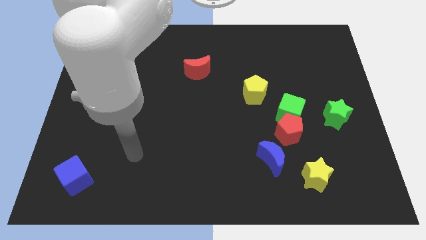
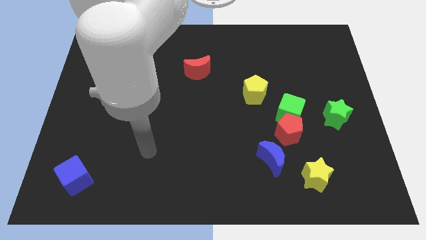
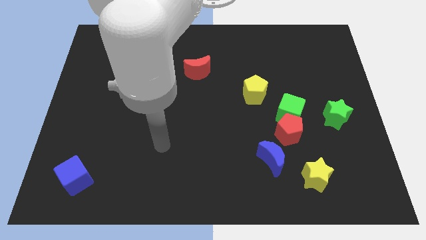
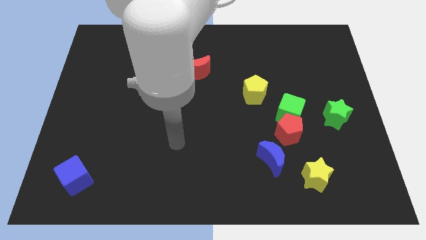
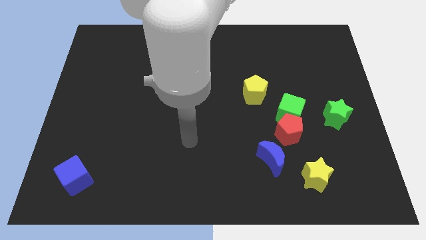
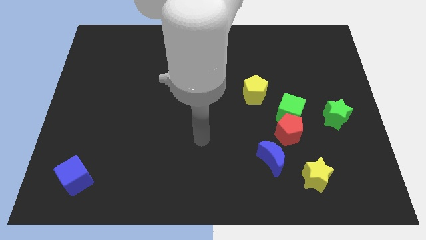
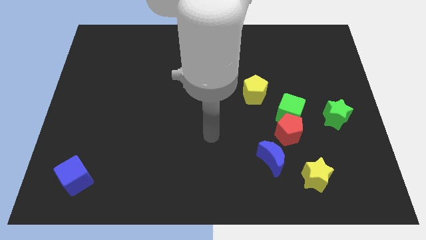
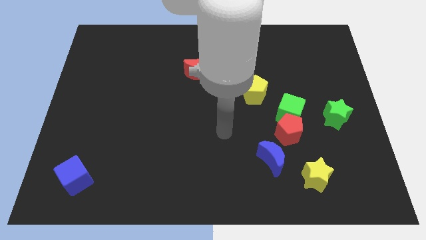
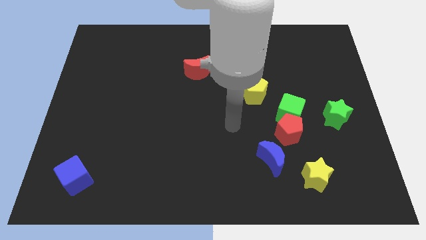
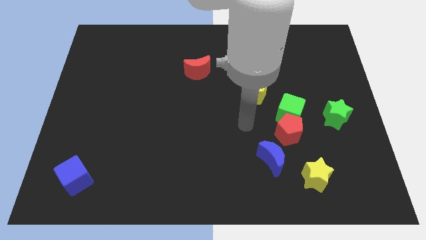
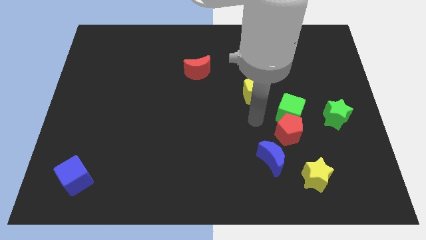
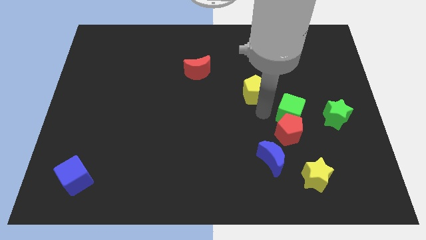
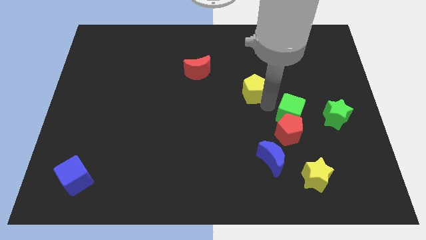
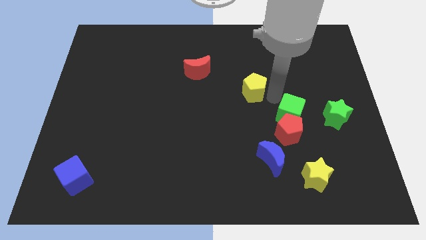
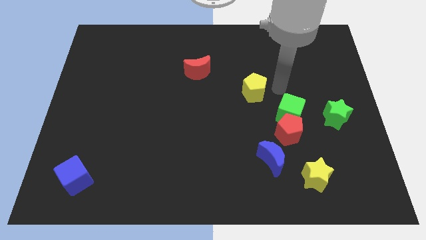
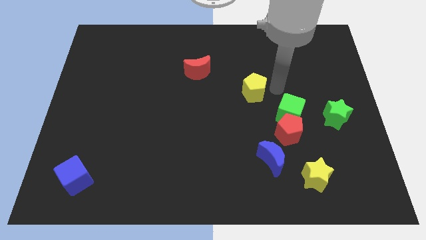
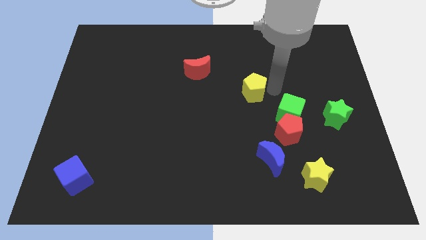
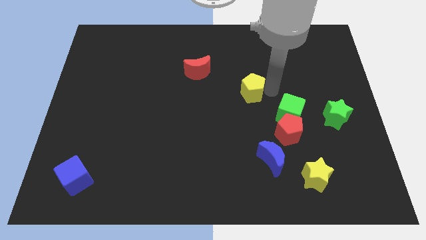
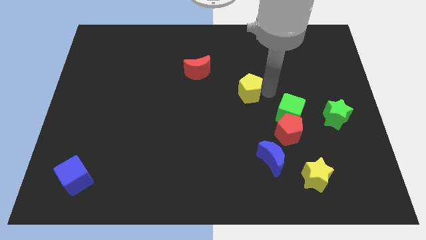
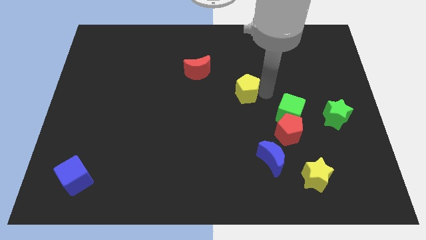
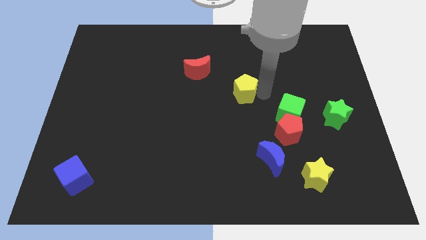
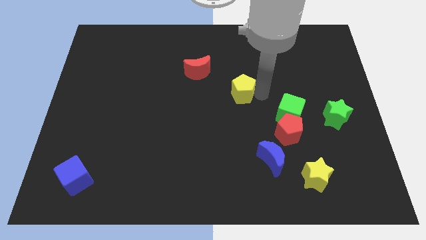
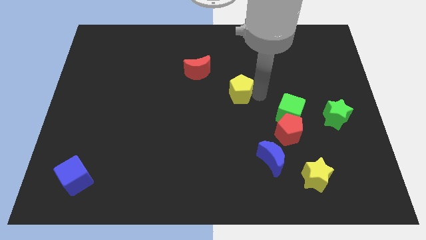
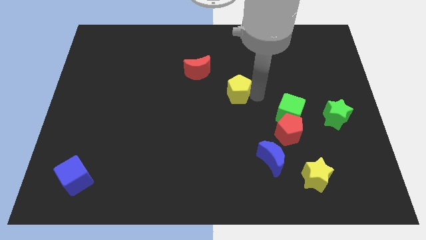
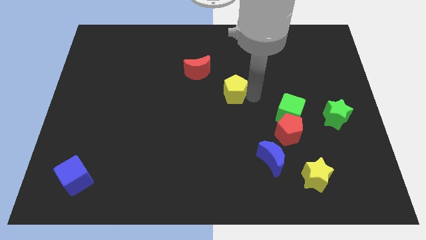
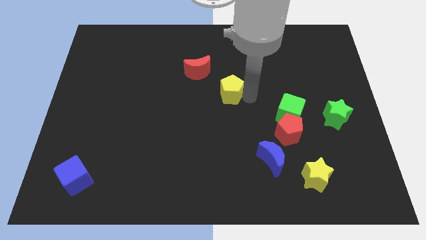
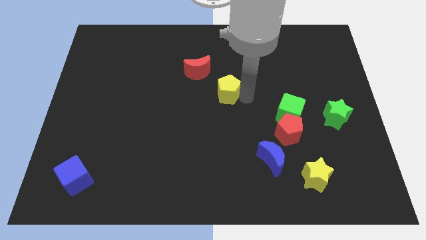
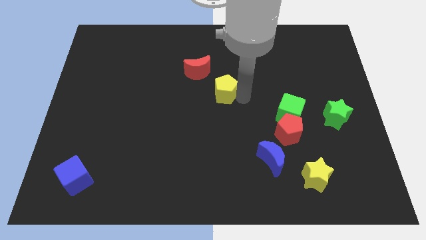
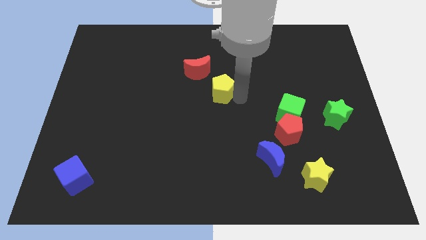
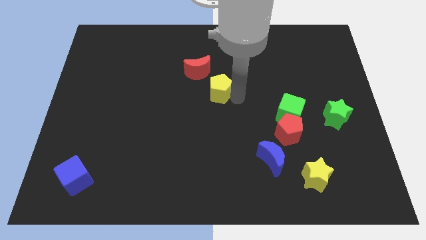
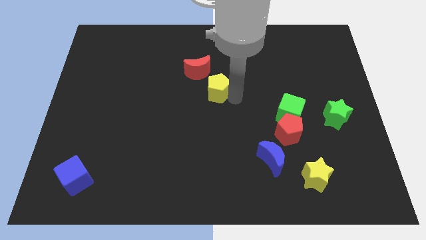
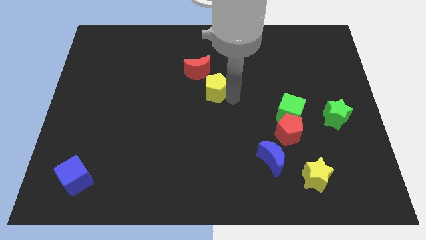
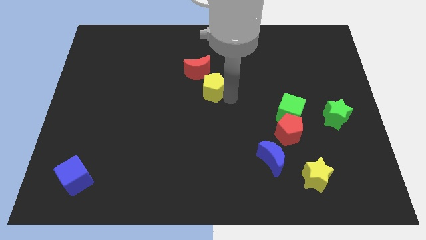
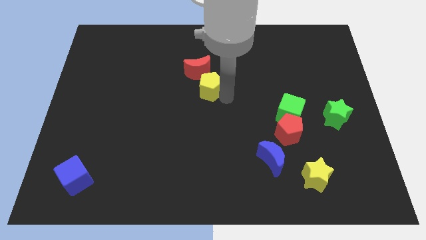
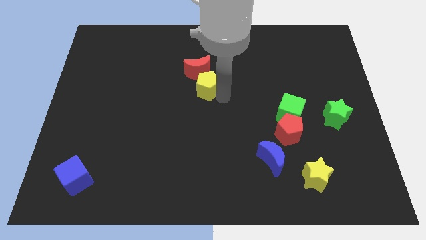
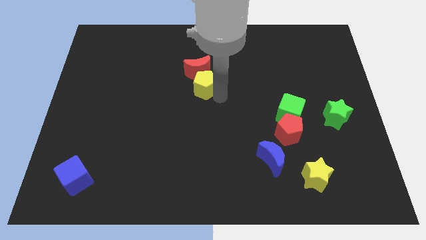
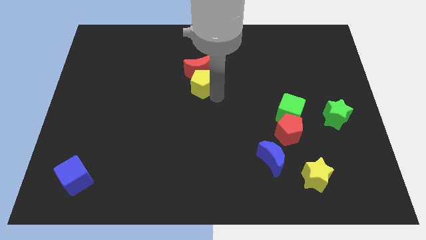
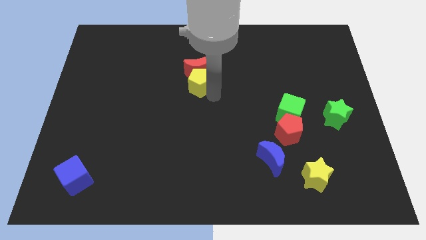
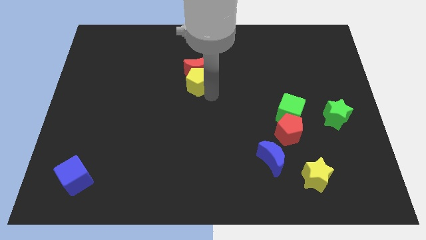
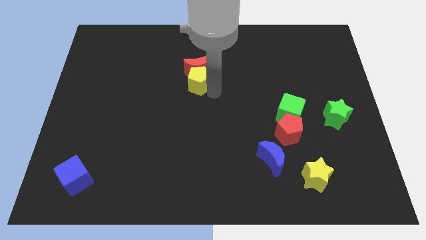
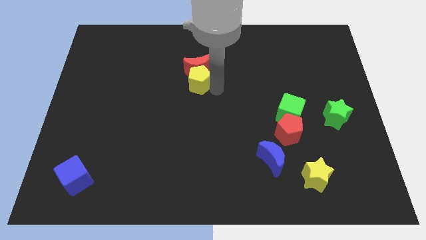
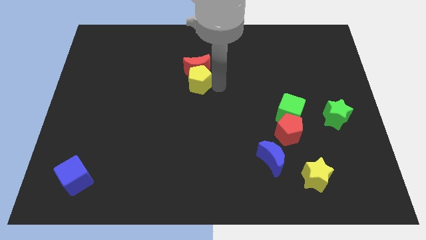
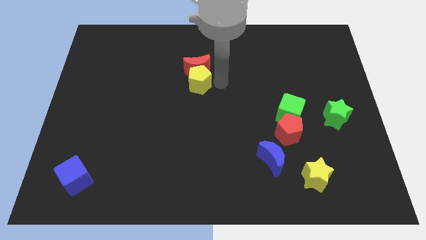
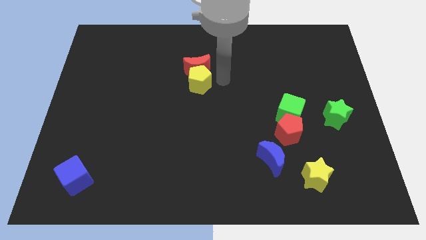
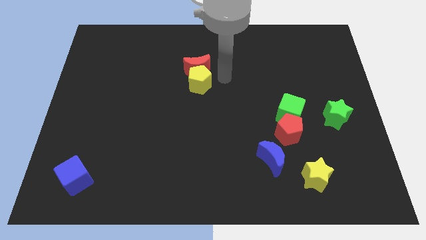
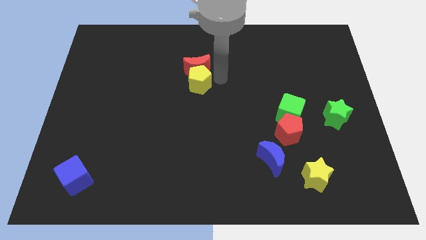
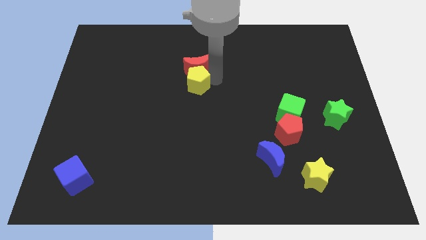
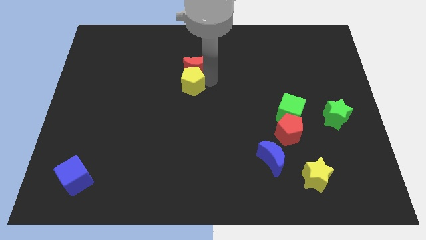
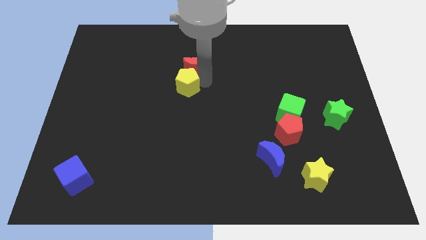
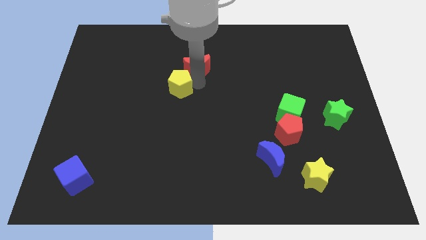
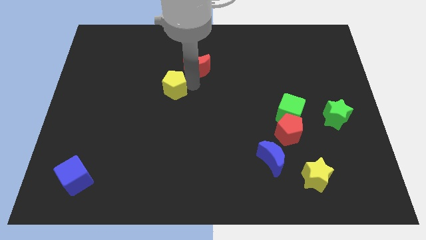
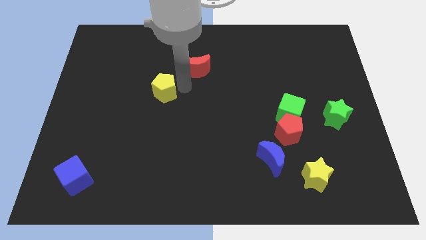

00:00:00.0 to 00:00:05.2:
move the yellow pentagon to the left

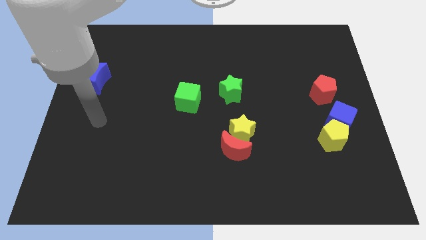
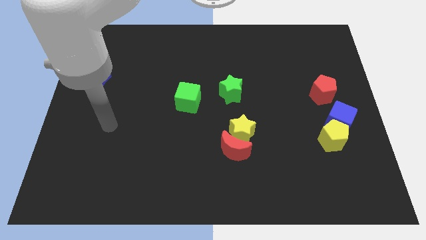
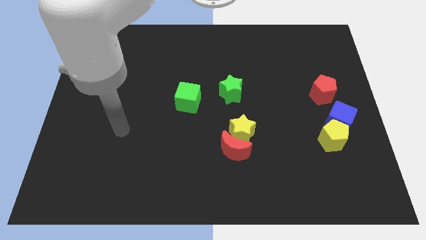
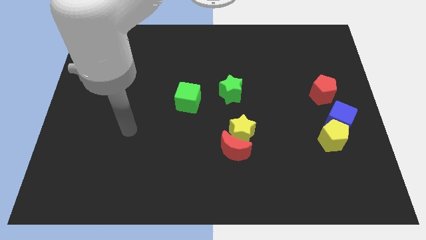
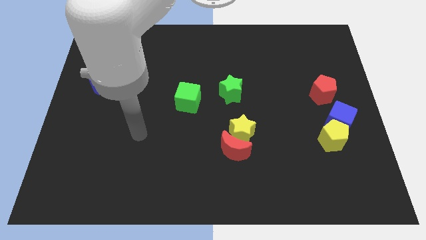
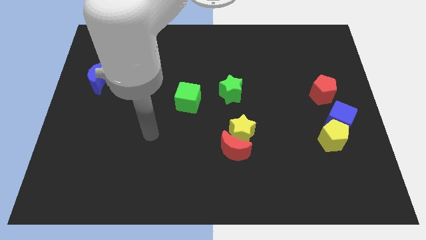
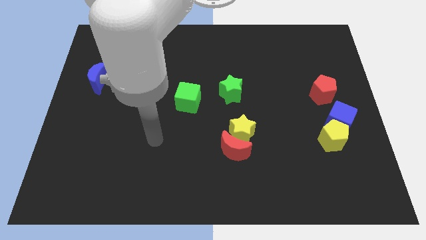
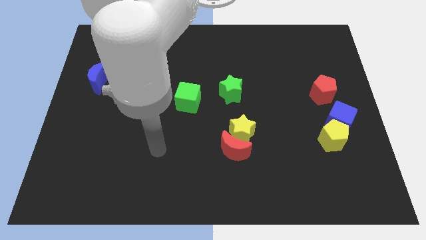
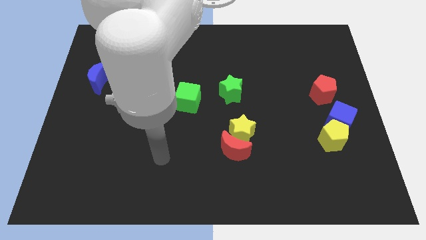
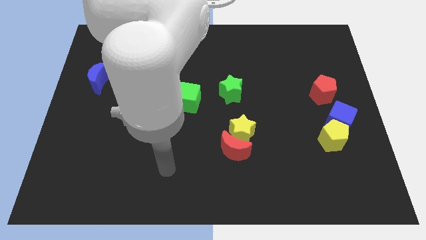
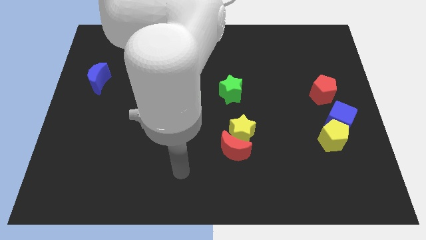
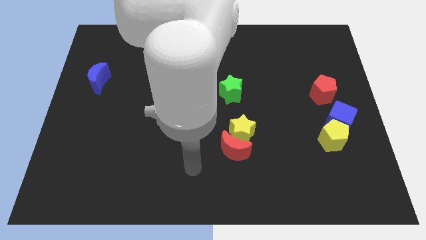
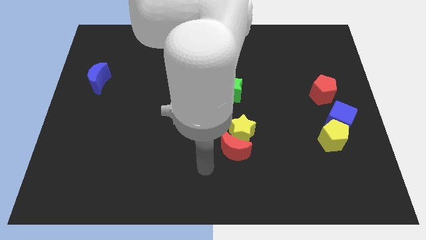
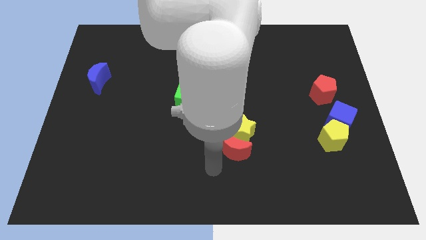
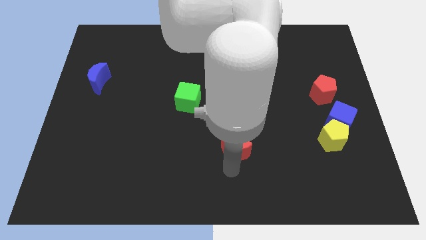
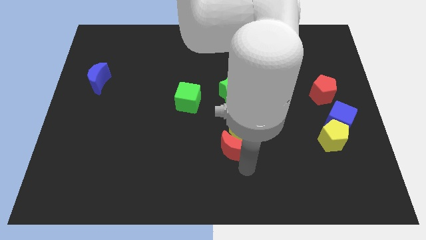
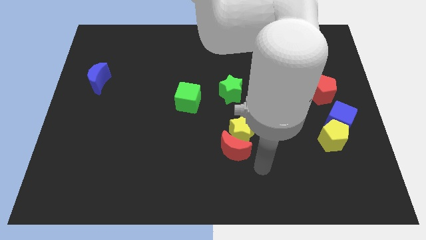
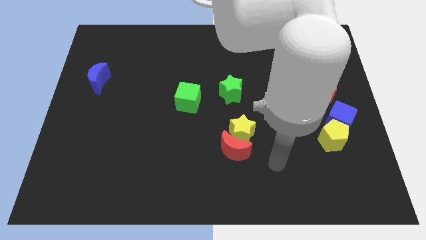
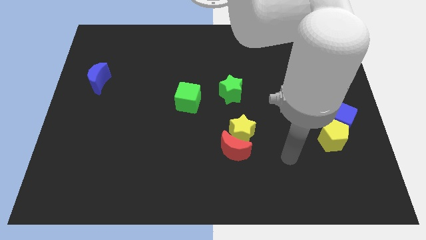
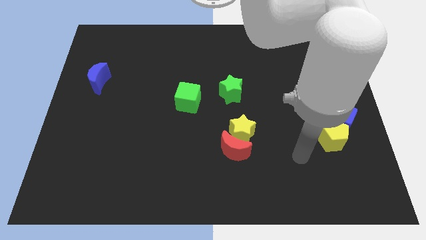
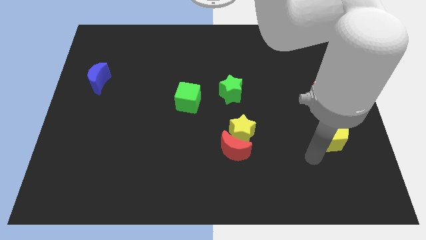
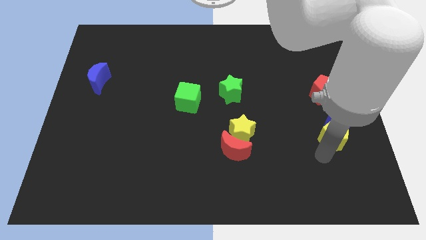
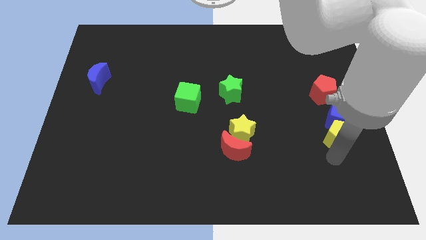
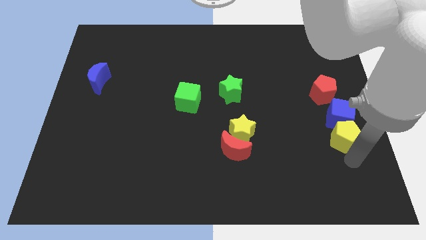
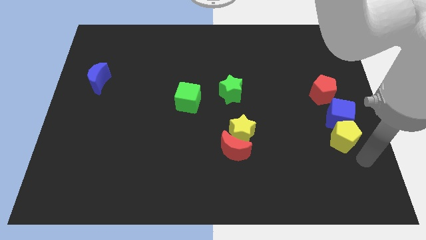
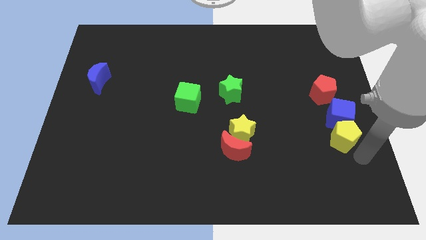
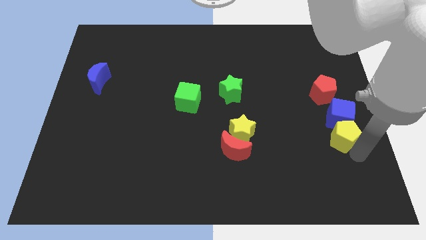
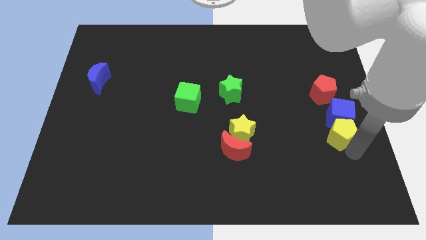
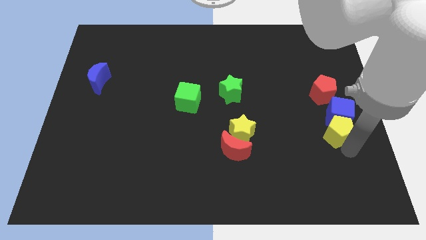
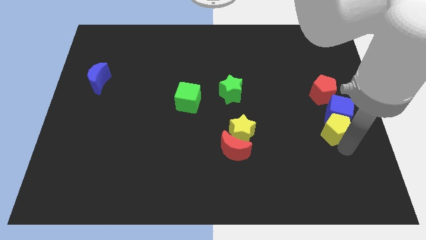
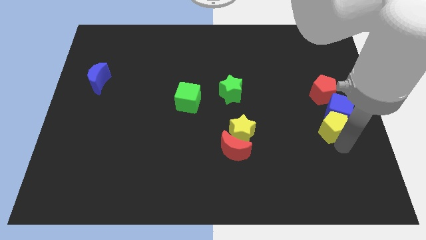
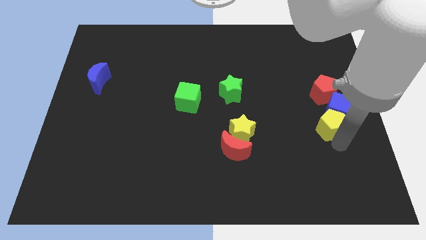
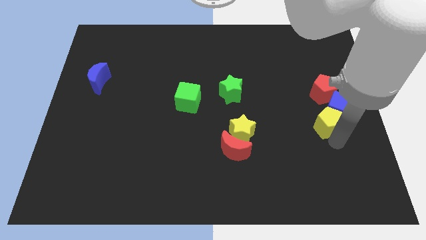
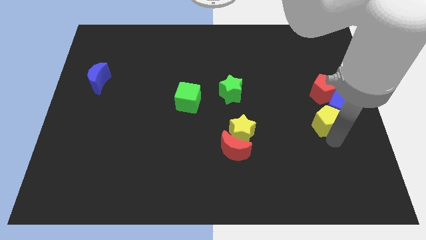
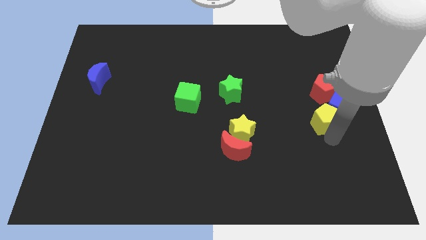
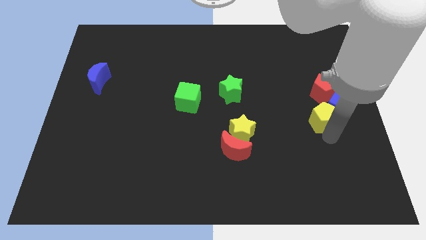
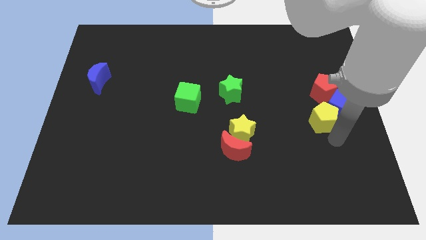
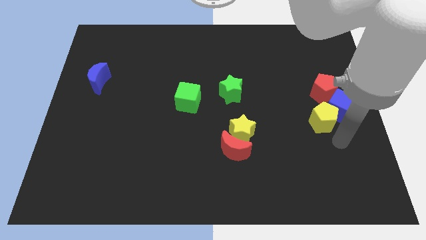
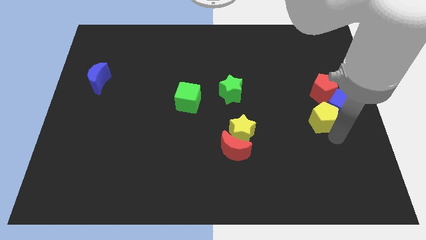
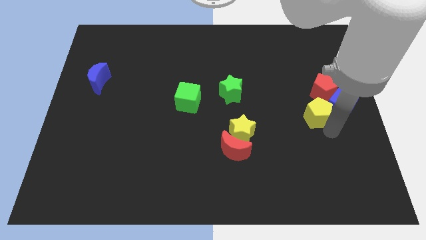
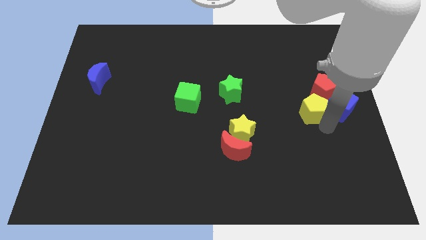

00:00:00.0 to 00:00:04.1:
push the yellow pentagon up a little
